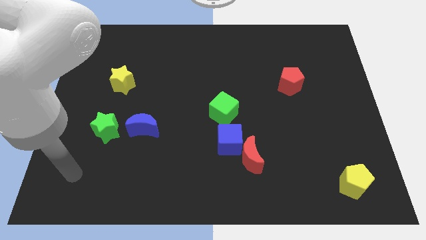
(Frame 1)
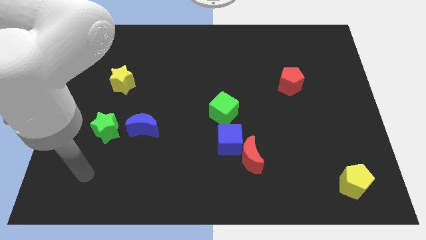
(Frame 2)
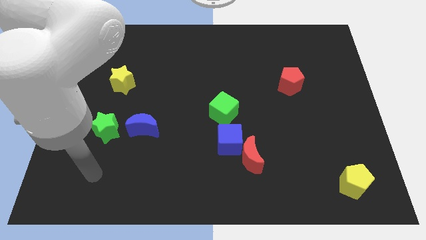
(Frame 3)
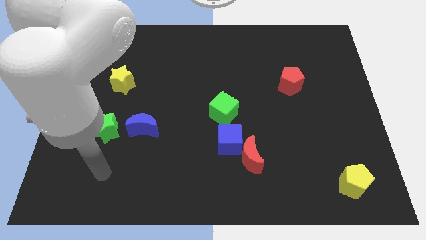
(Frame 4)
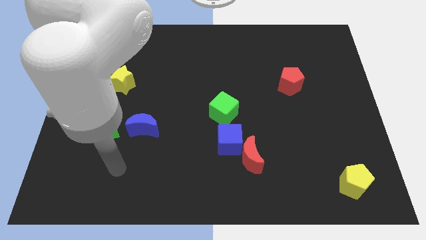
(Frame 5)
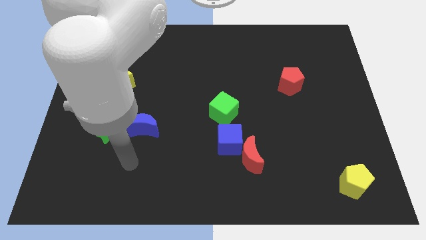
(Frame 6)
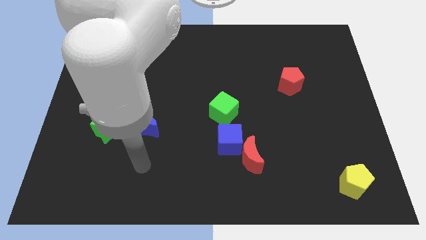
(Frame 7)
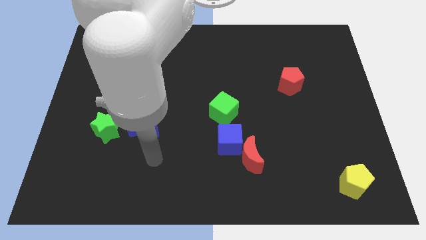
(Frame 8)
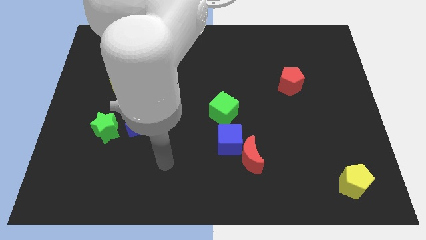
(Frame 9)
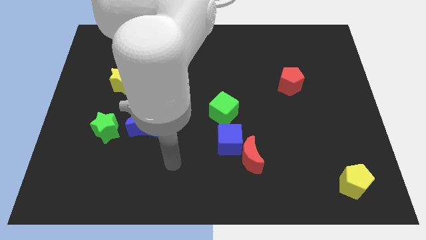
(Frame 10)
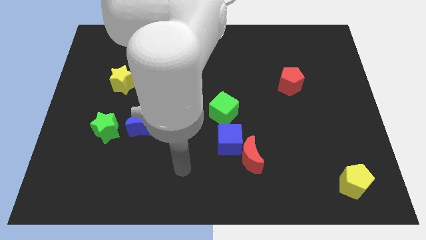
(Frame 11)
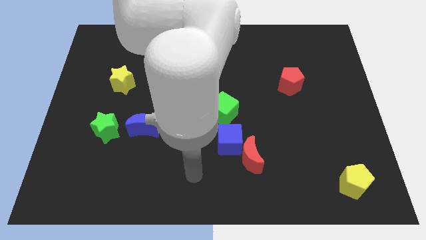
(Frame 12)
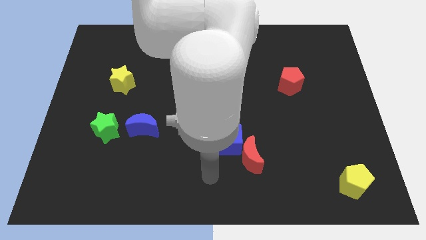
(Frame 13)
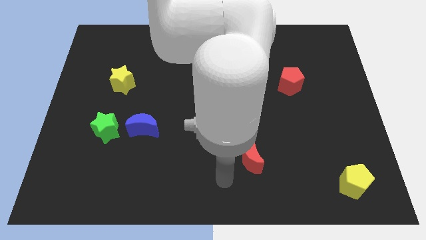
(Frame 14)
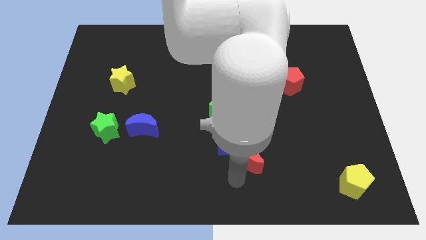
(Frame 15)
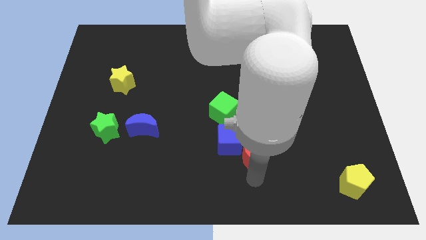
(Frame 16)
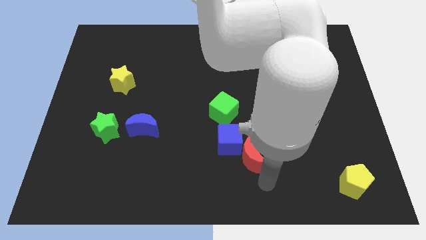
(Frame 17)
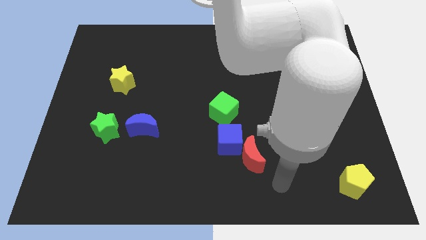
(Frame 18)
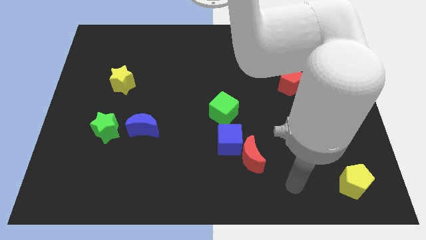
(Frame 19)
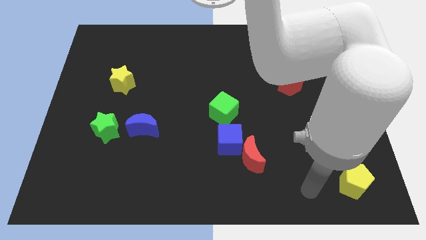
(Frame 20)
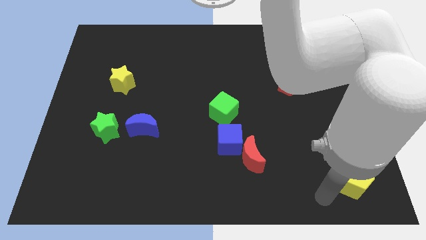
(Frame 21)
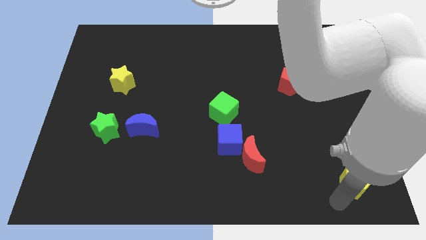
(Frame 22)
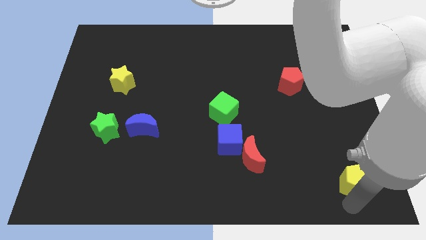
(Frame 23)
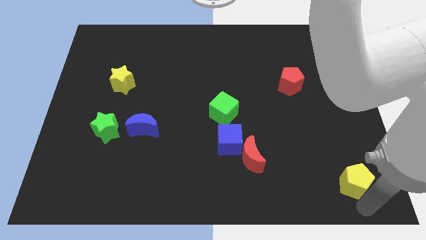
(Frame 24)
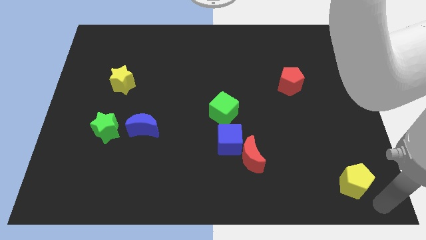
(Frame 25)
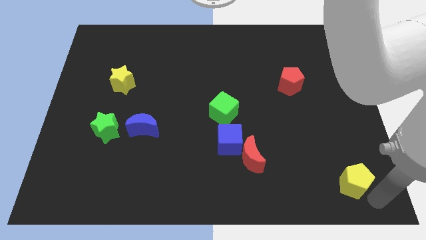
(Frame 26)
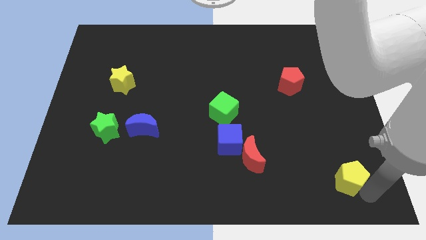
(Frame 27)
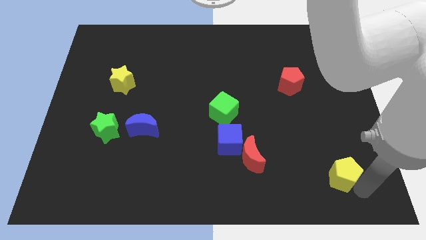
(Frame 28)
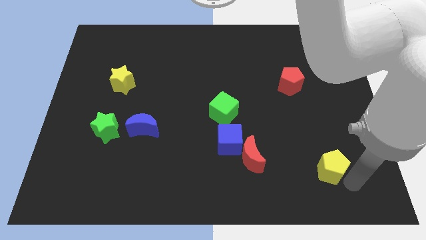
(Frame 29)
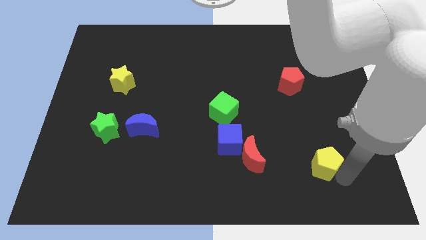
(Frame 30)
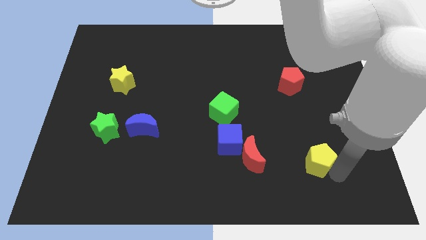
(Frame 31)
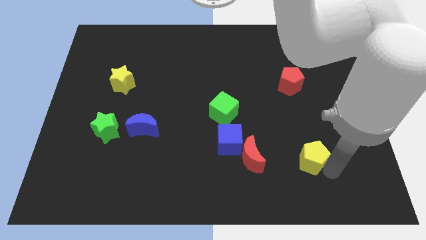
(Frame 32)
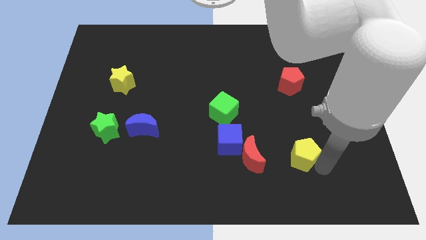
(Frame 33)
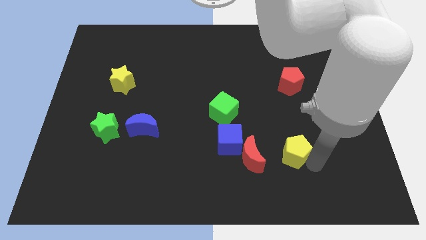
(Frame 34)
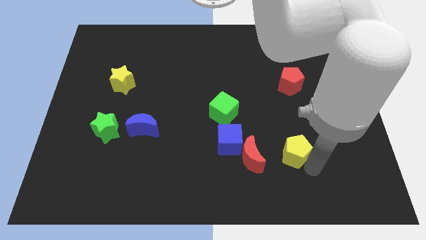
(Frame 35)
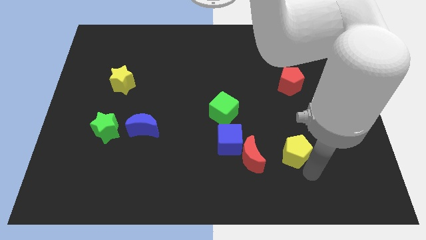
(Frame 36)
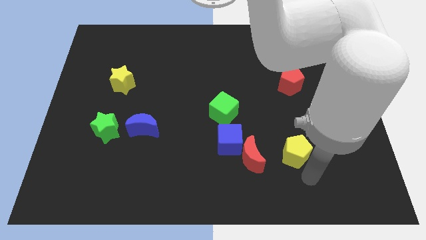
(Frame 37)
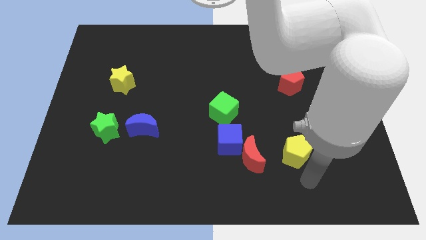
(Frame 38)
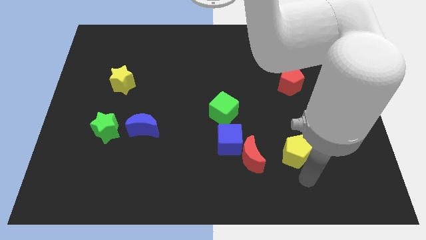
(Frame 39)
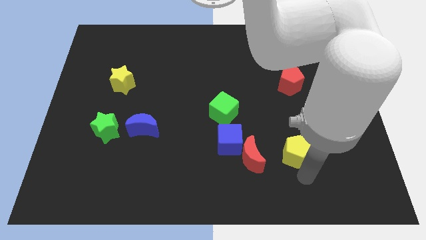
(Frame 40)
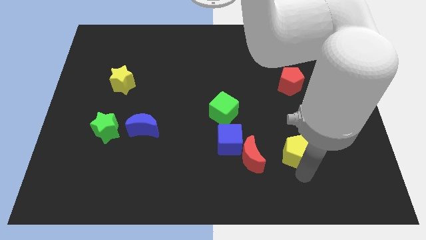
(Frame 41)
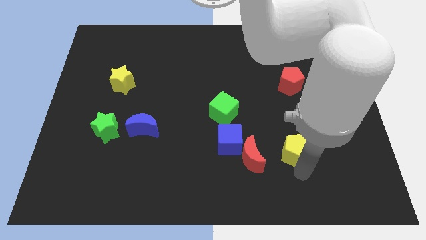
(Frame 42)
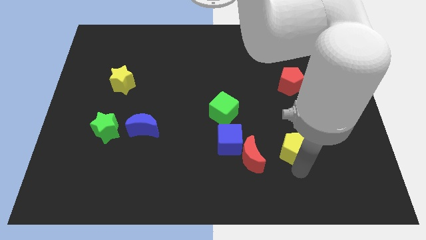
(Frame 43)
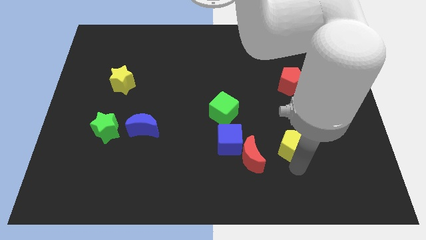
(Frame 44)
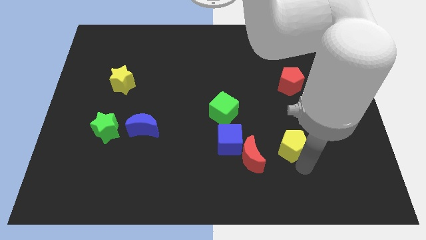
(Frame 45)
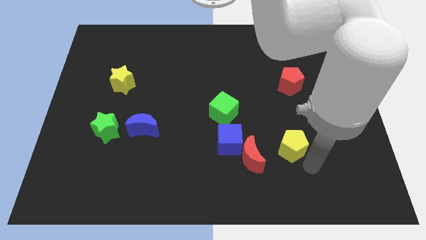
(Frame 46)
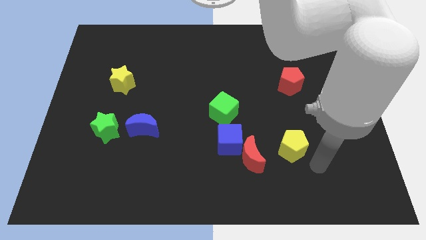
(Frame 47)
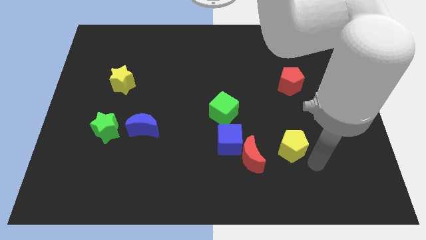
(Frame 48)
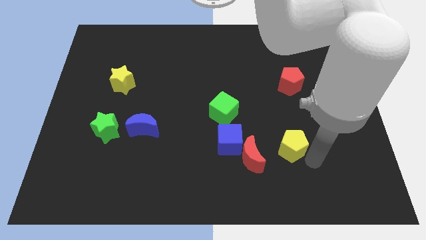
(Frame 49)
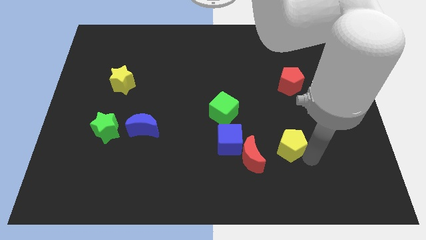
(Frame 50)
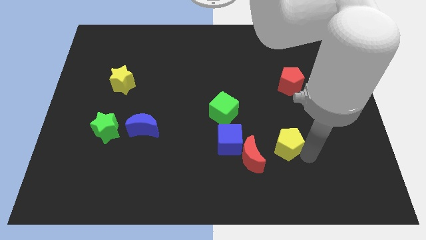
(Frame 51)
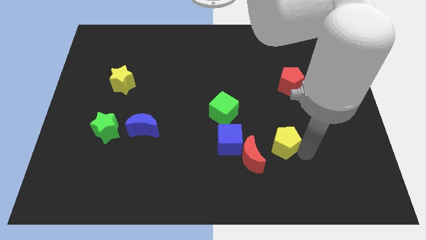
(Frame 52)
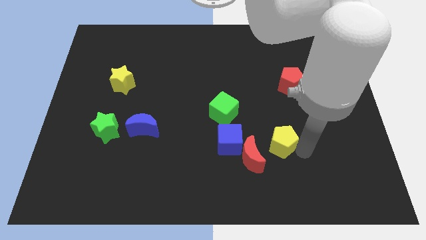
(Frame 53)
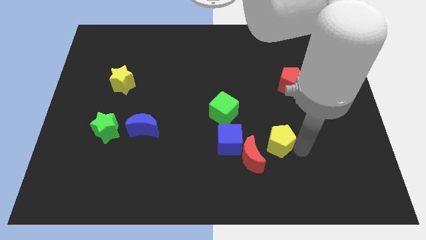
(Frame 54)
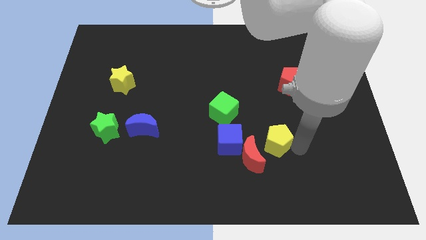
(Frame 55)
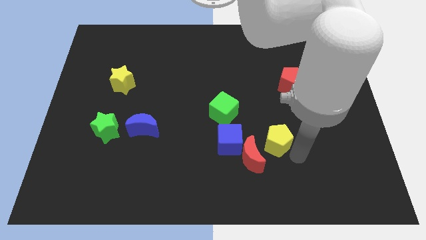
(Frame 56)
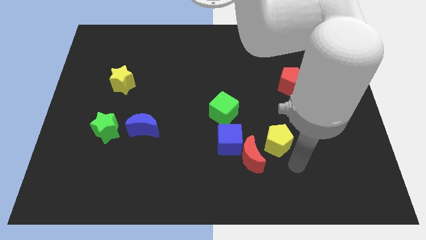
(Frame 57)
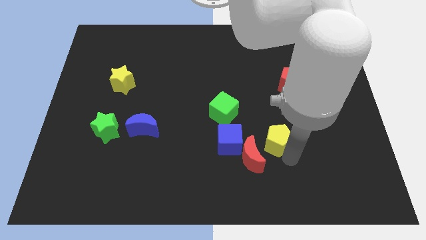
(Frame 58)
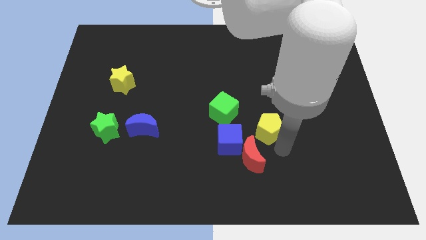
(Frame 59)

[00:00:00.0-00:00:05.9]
push the yellow pentagon upwards and then to the left

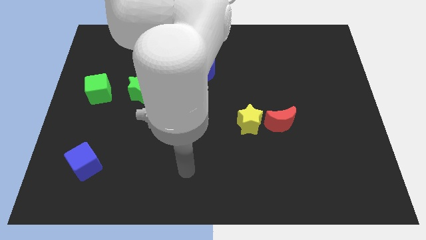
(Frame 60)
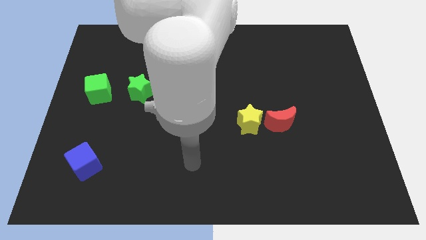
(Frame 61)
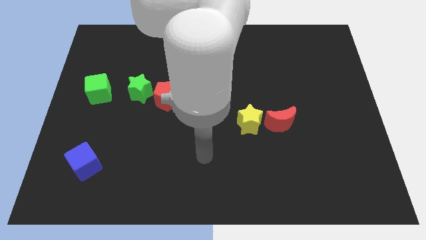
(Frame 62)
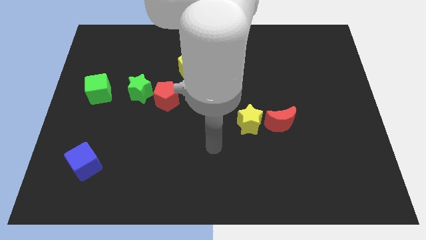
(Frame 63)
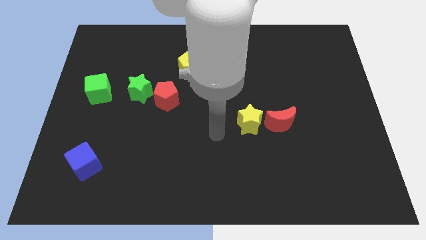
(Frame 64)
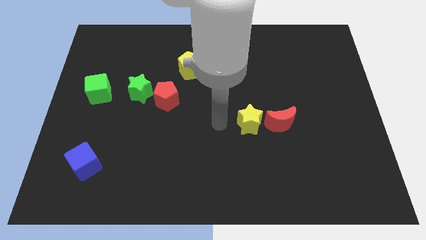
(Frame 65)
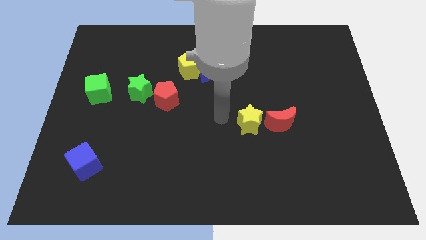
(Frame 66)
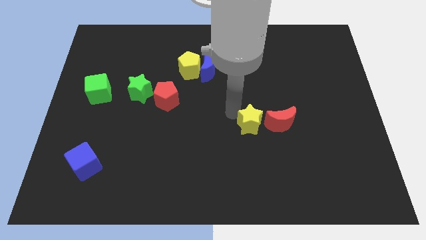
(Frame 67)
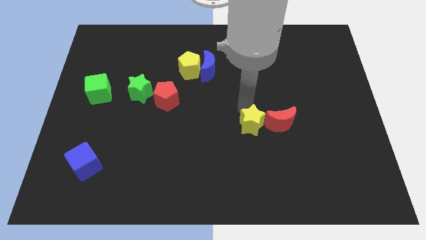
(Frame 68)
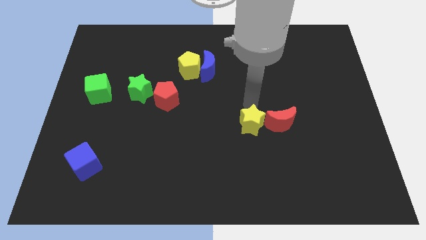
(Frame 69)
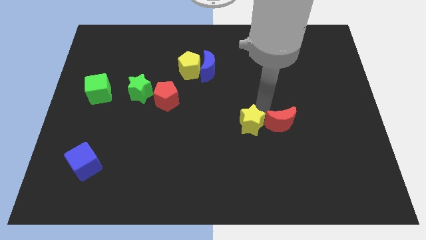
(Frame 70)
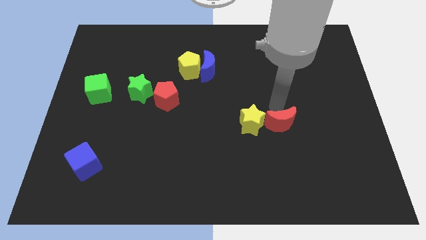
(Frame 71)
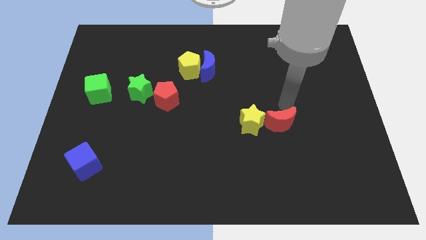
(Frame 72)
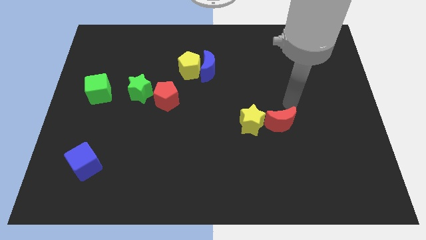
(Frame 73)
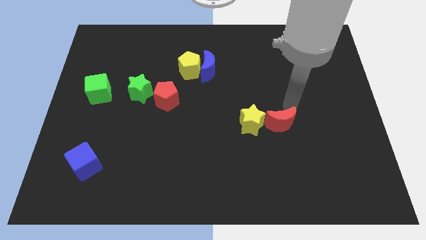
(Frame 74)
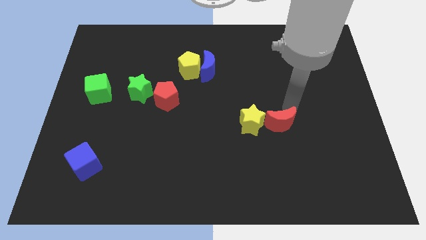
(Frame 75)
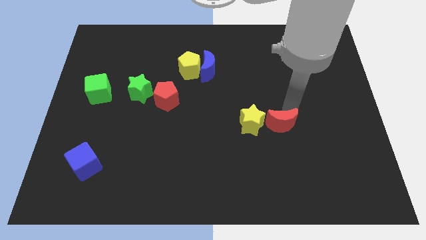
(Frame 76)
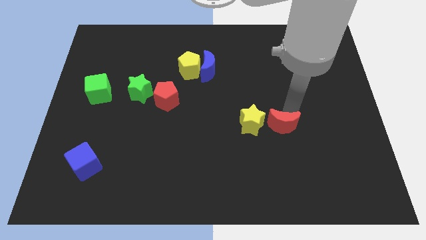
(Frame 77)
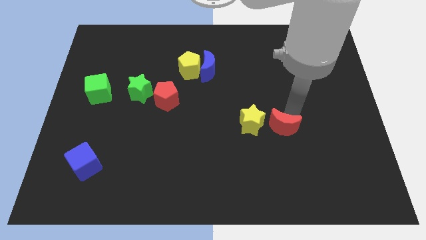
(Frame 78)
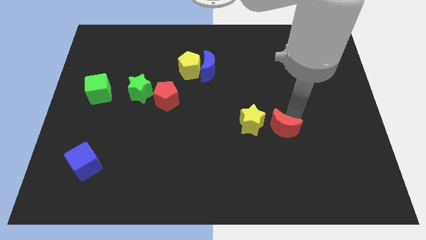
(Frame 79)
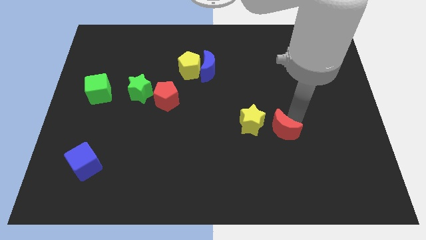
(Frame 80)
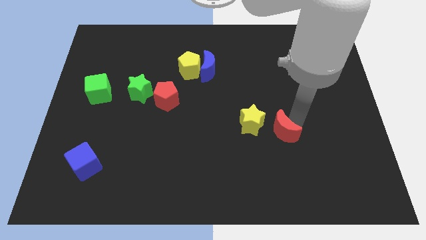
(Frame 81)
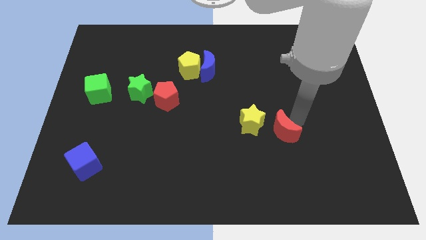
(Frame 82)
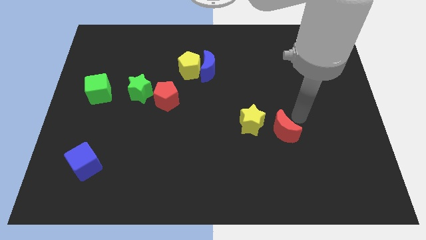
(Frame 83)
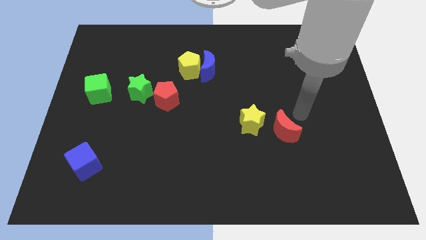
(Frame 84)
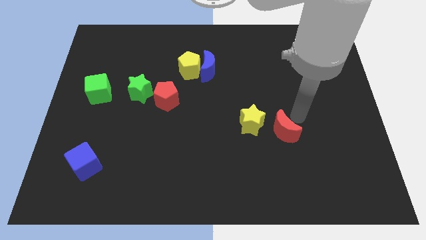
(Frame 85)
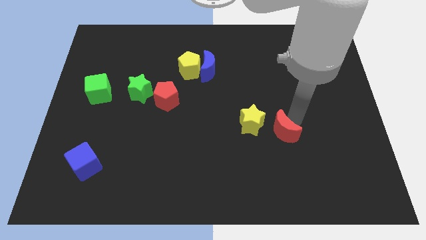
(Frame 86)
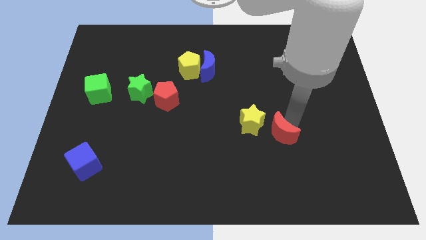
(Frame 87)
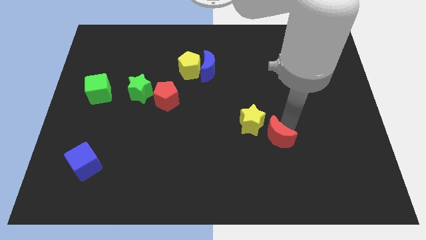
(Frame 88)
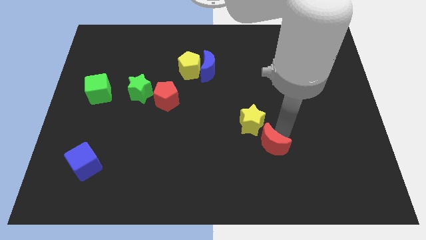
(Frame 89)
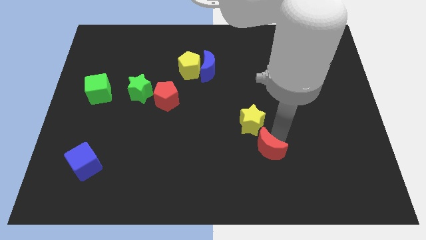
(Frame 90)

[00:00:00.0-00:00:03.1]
move the red moon a bit down and left
